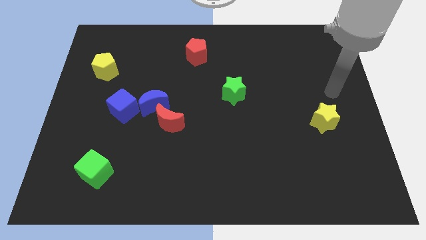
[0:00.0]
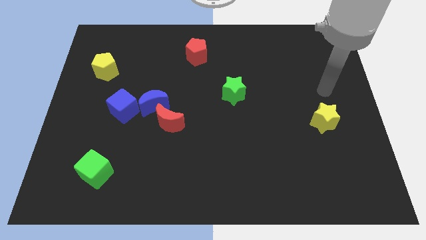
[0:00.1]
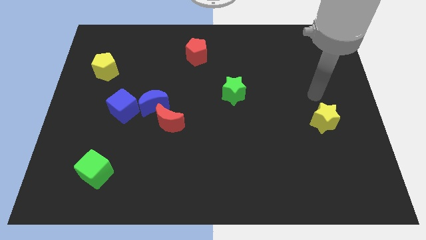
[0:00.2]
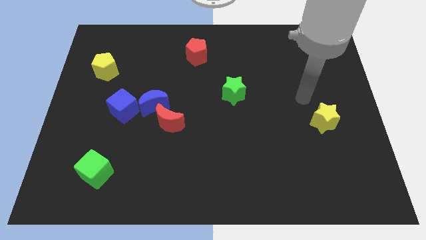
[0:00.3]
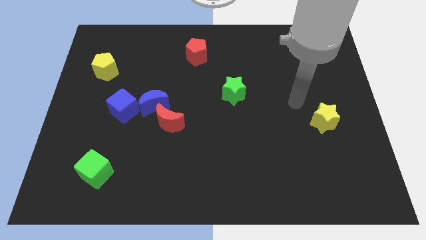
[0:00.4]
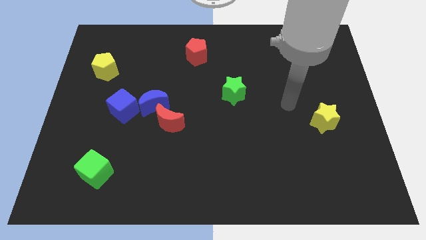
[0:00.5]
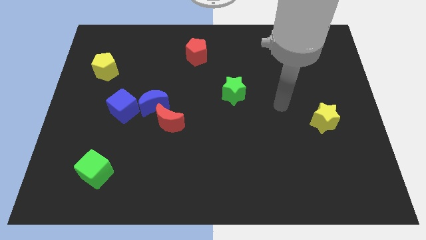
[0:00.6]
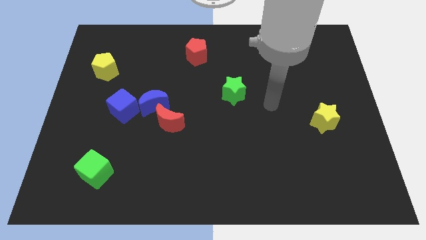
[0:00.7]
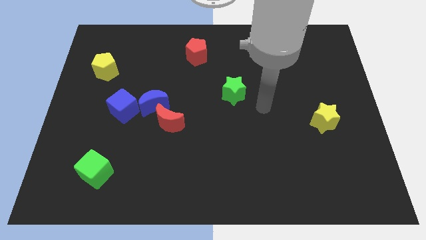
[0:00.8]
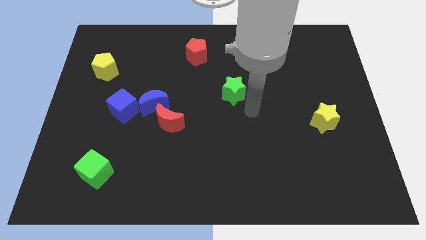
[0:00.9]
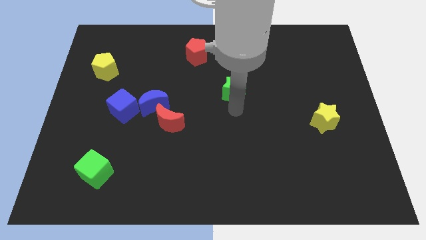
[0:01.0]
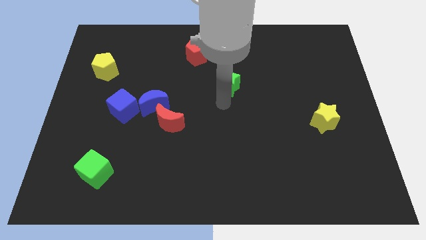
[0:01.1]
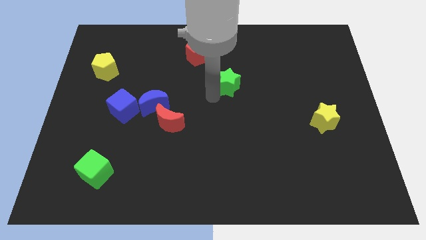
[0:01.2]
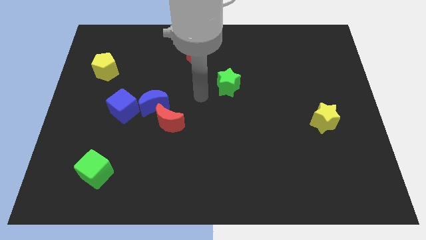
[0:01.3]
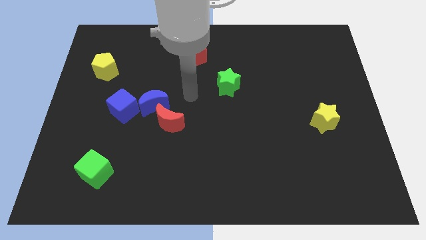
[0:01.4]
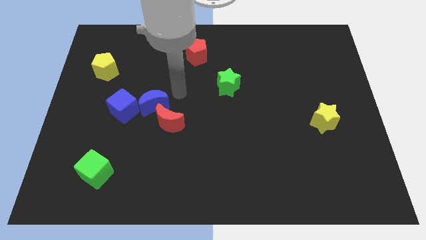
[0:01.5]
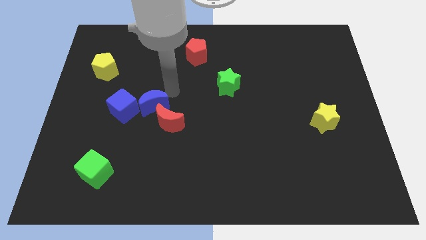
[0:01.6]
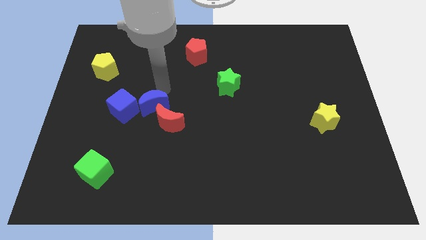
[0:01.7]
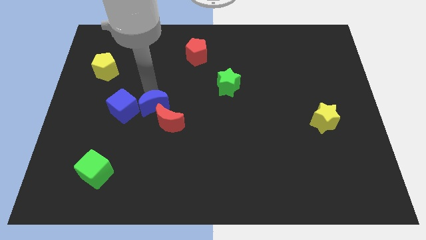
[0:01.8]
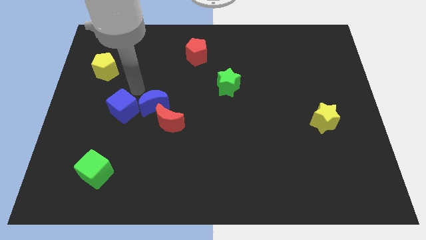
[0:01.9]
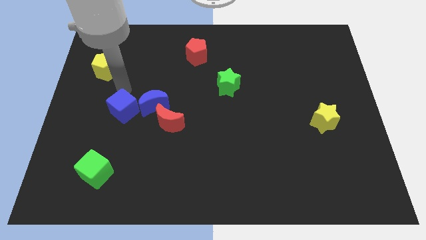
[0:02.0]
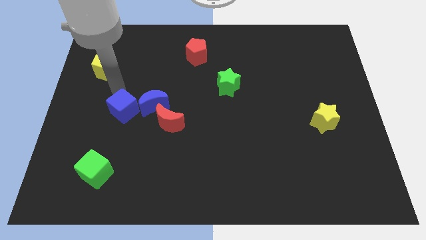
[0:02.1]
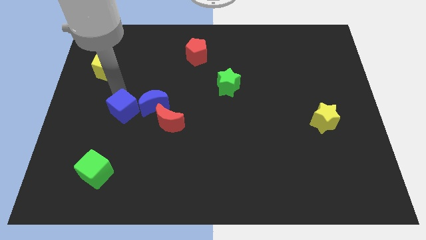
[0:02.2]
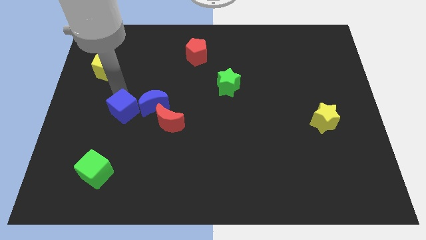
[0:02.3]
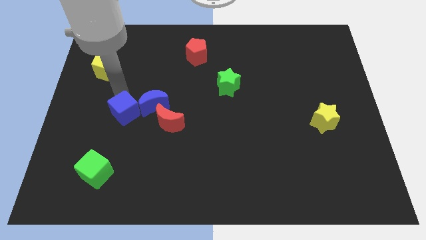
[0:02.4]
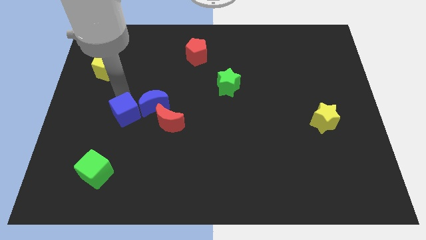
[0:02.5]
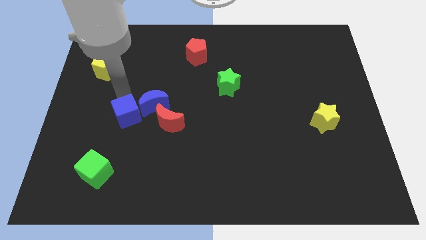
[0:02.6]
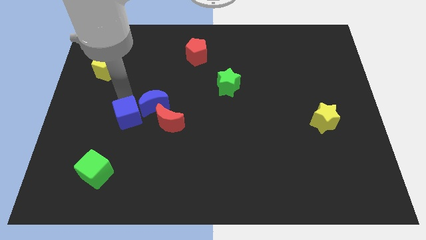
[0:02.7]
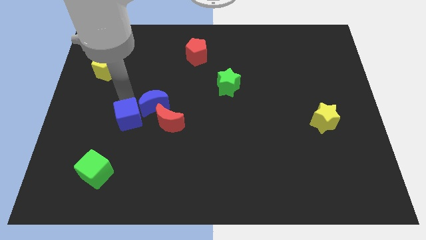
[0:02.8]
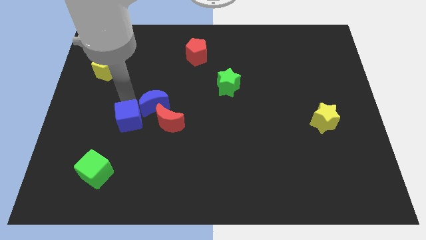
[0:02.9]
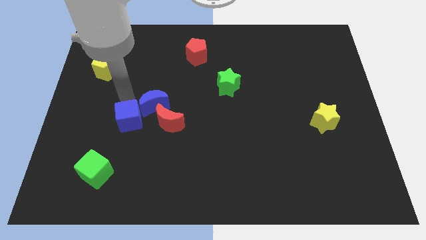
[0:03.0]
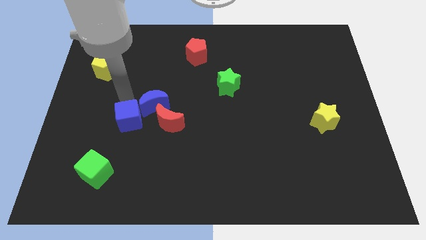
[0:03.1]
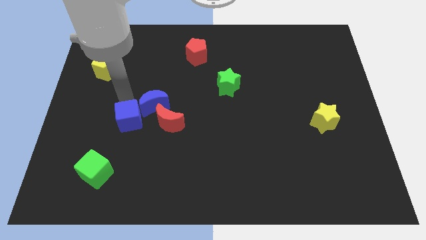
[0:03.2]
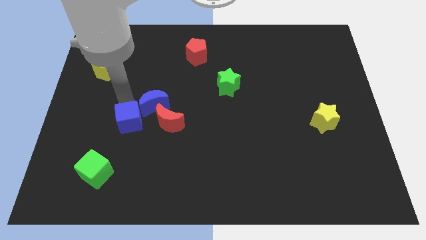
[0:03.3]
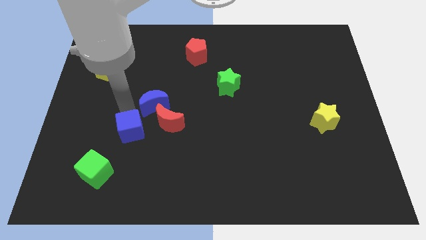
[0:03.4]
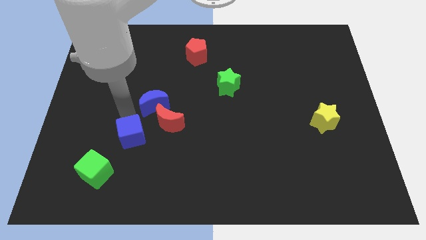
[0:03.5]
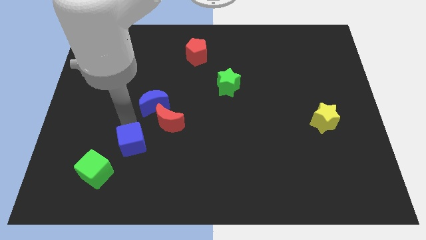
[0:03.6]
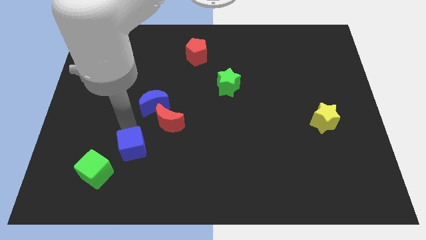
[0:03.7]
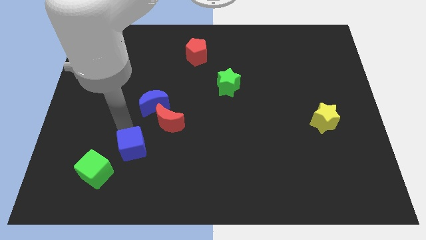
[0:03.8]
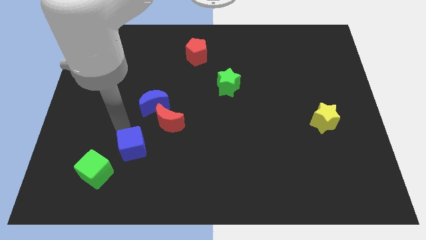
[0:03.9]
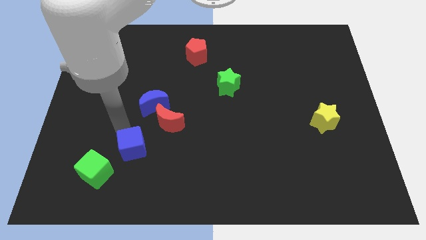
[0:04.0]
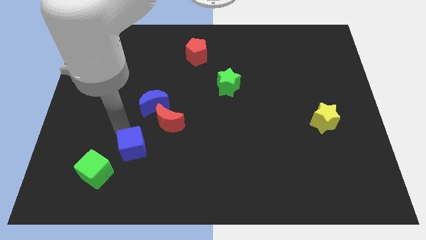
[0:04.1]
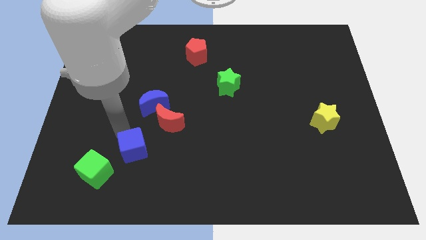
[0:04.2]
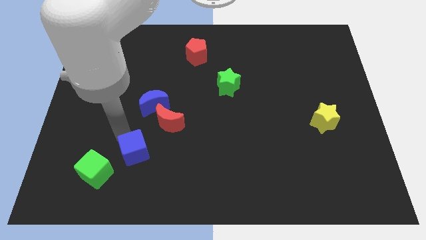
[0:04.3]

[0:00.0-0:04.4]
push the blue cube to the right of the green cube

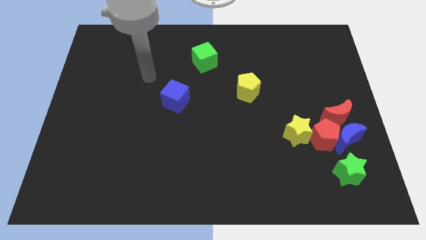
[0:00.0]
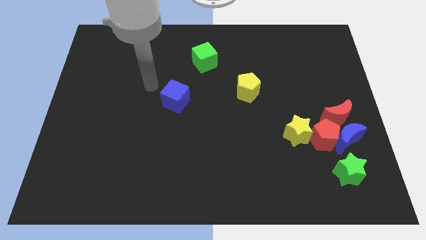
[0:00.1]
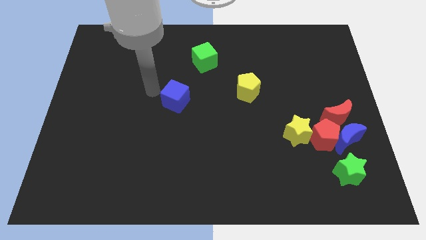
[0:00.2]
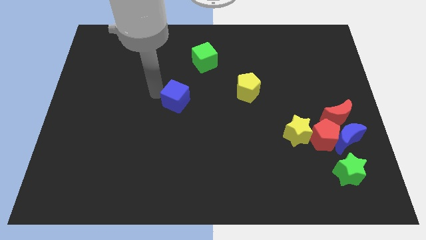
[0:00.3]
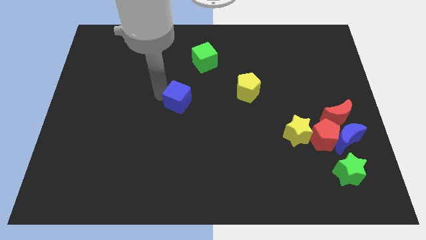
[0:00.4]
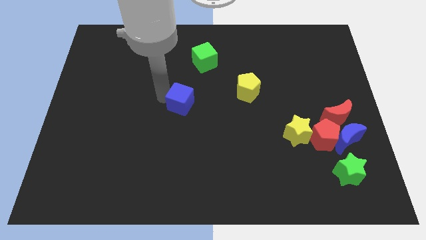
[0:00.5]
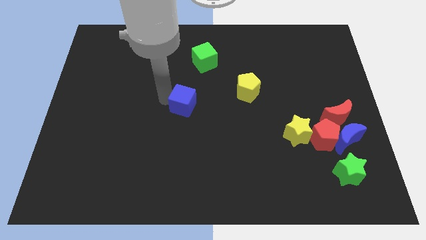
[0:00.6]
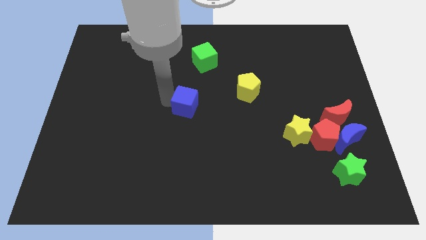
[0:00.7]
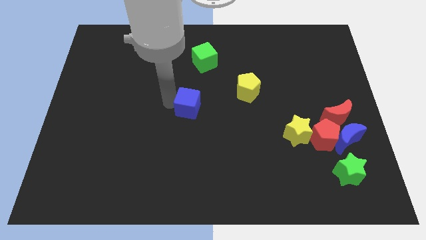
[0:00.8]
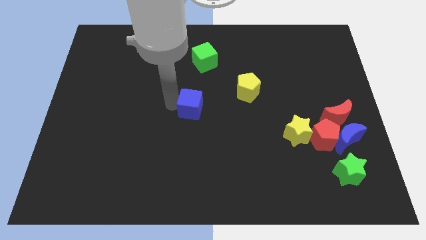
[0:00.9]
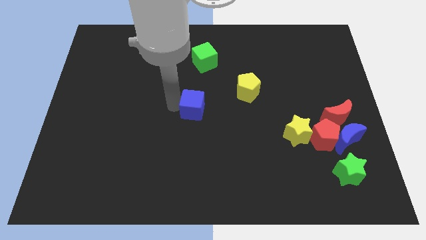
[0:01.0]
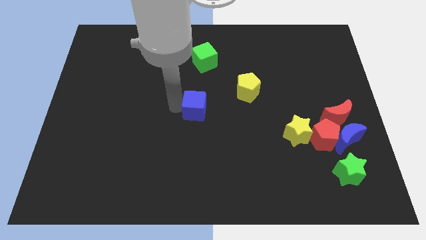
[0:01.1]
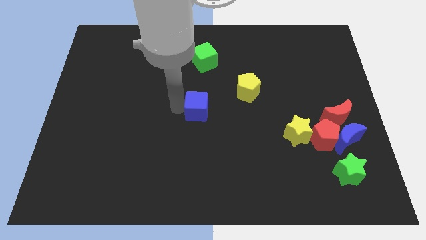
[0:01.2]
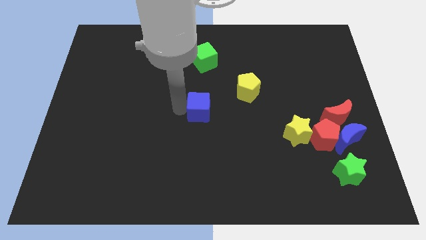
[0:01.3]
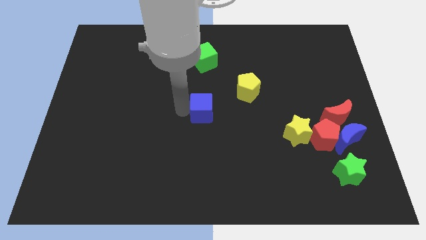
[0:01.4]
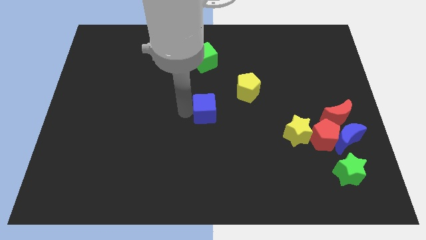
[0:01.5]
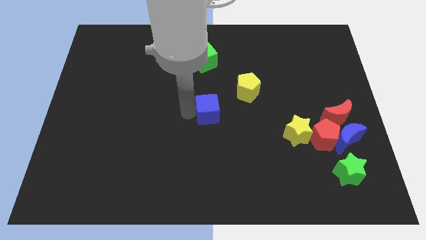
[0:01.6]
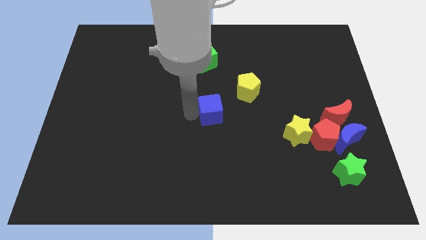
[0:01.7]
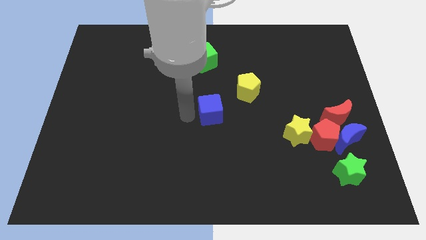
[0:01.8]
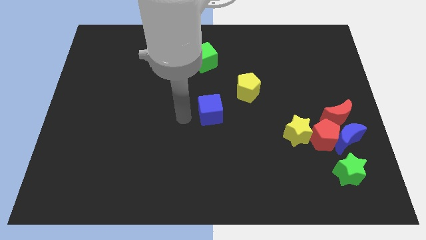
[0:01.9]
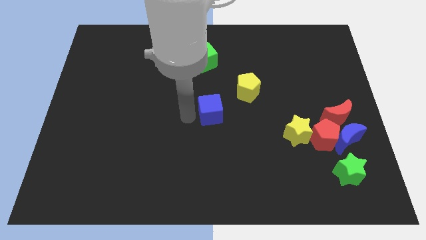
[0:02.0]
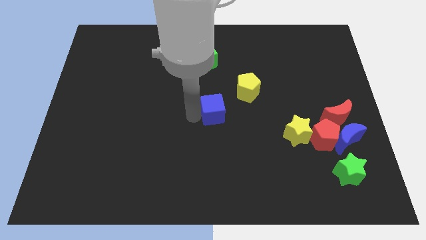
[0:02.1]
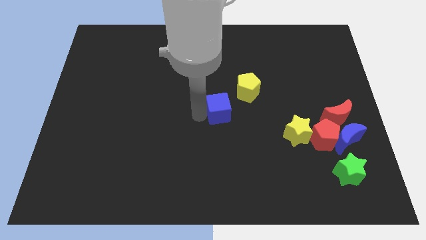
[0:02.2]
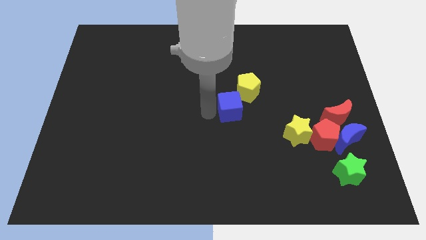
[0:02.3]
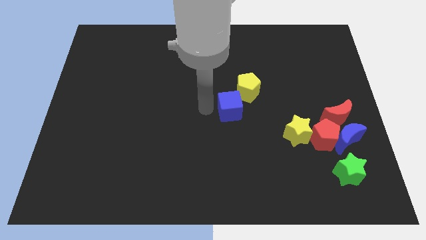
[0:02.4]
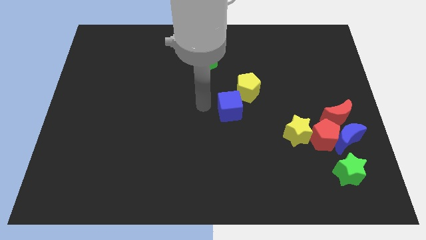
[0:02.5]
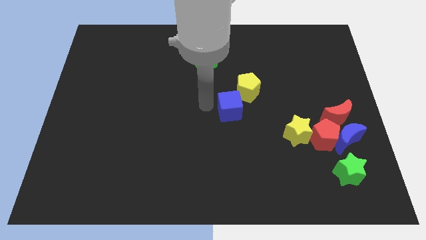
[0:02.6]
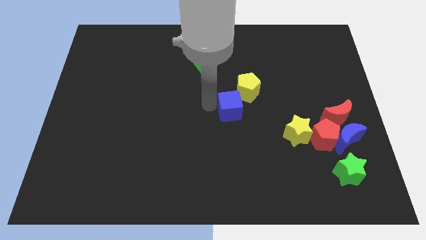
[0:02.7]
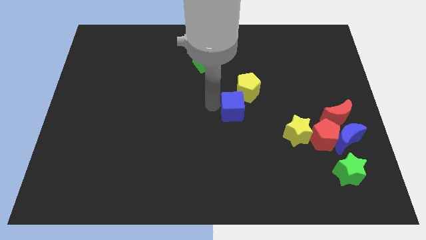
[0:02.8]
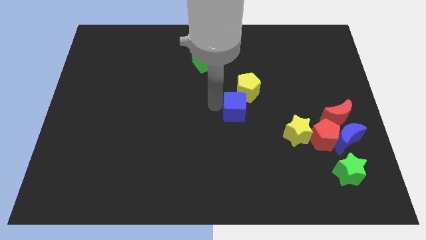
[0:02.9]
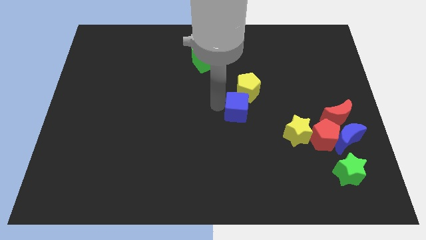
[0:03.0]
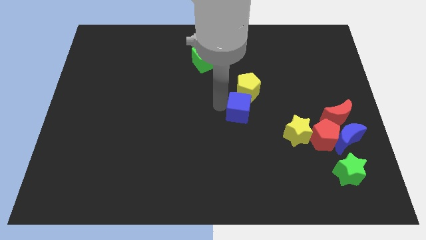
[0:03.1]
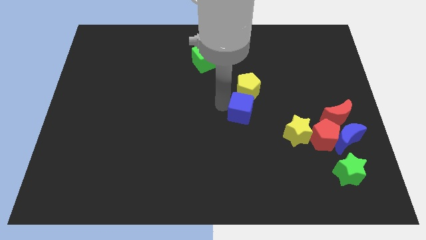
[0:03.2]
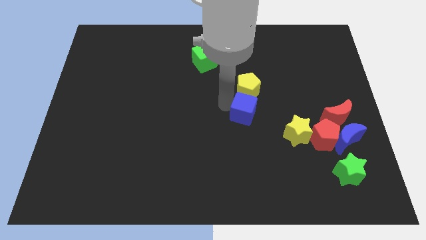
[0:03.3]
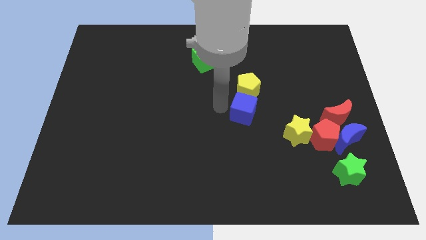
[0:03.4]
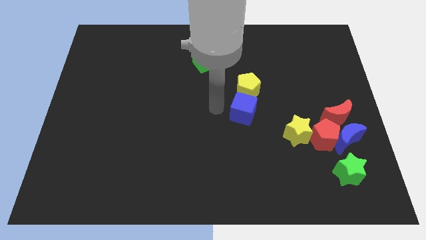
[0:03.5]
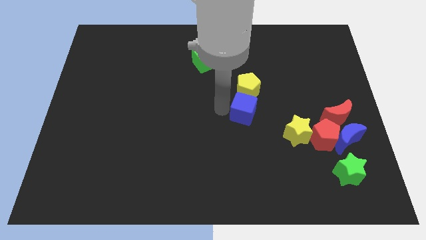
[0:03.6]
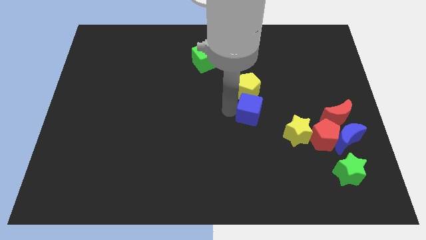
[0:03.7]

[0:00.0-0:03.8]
move the blue cube to the top left side of the yellow star
